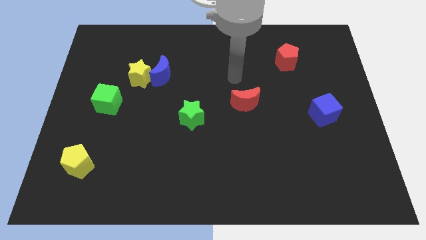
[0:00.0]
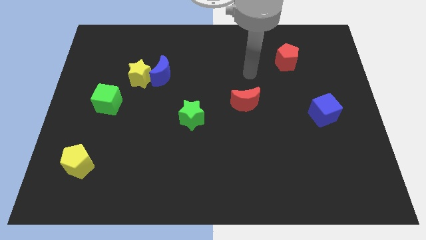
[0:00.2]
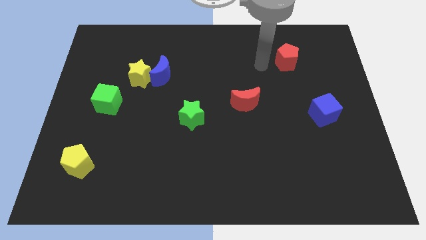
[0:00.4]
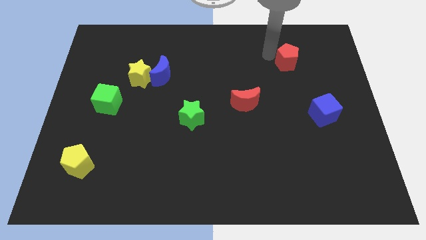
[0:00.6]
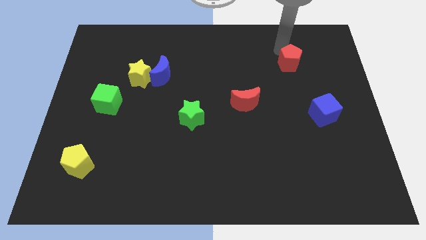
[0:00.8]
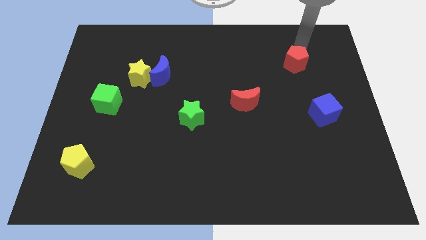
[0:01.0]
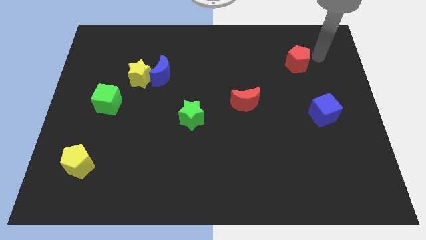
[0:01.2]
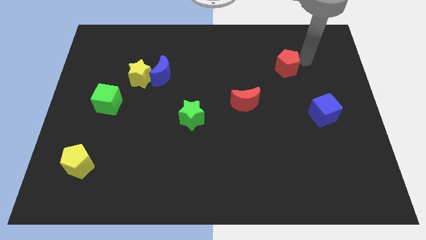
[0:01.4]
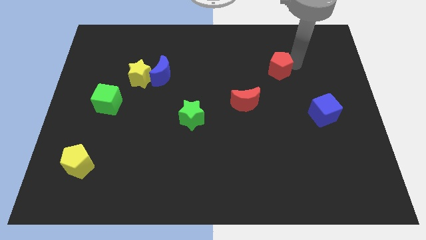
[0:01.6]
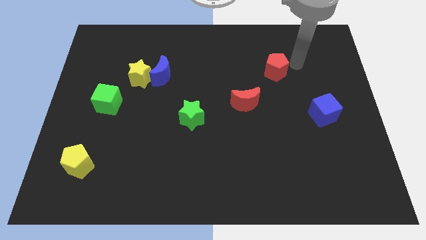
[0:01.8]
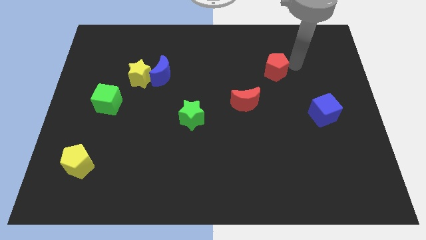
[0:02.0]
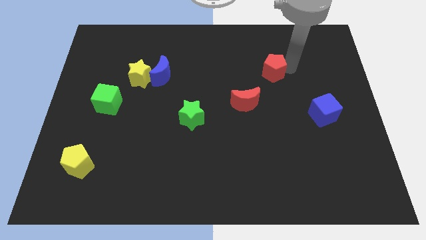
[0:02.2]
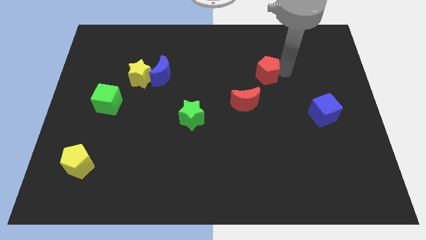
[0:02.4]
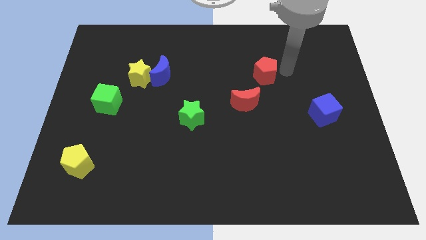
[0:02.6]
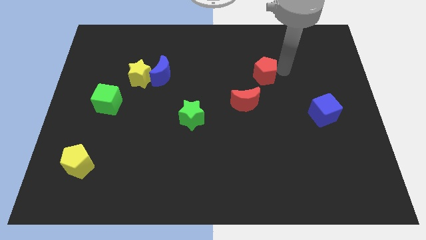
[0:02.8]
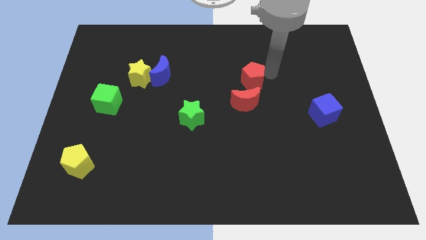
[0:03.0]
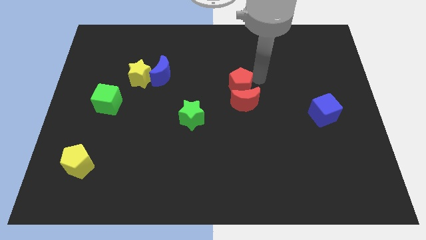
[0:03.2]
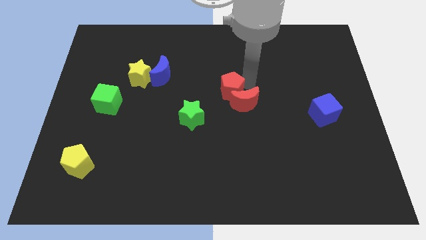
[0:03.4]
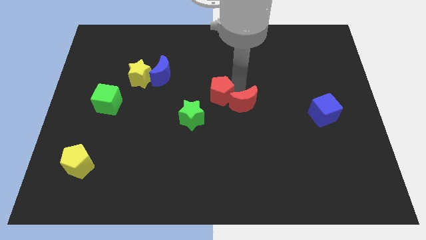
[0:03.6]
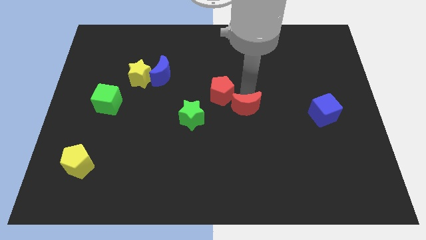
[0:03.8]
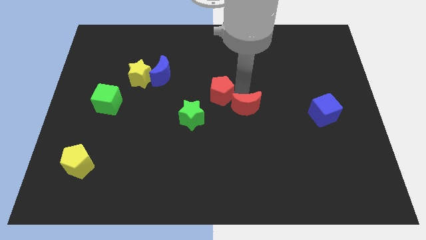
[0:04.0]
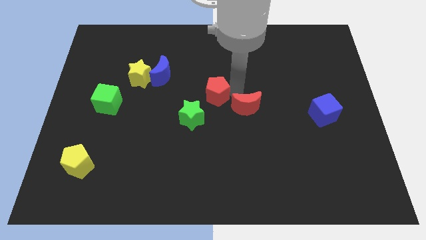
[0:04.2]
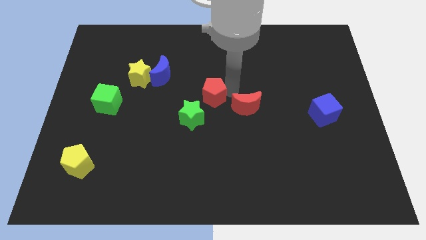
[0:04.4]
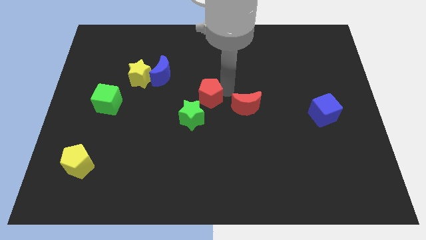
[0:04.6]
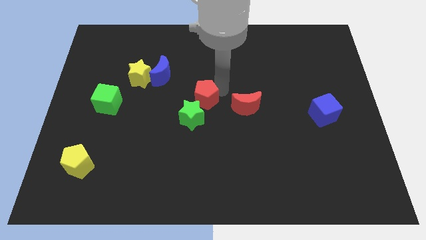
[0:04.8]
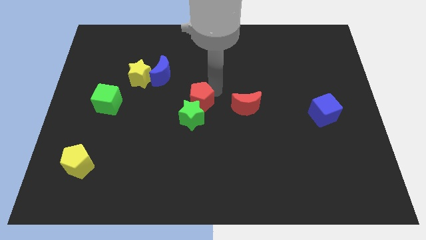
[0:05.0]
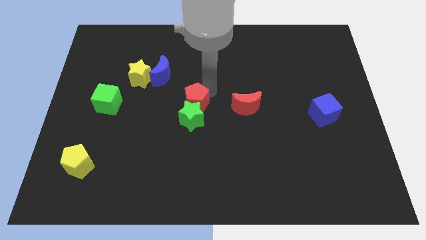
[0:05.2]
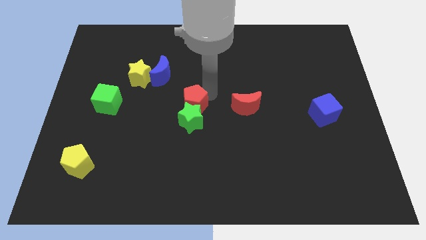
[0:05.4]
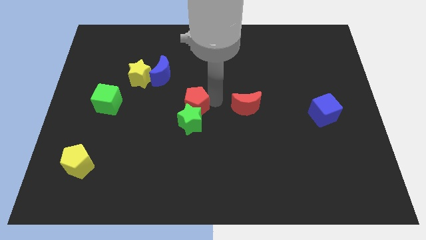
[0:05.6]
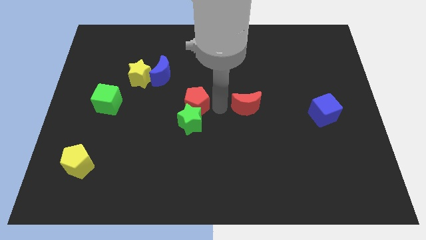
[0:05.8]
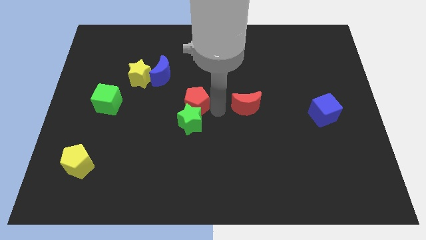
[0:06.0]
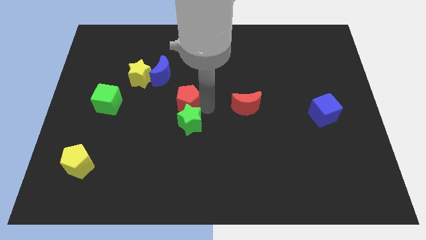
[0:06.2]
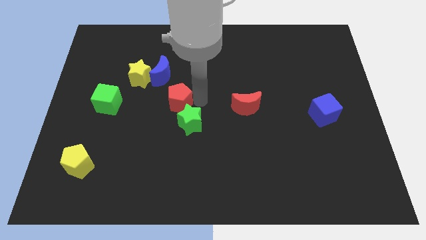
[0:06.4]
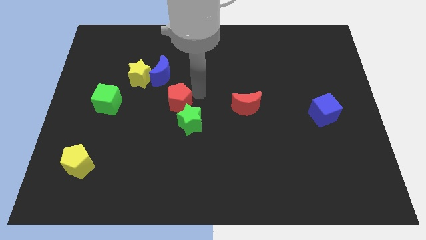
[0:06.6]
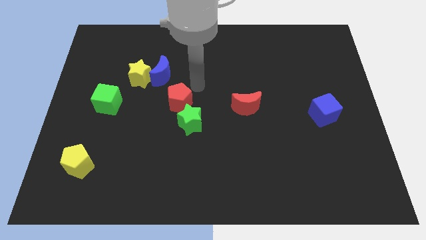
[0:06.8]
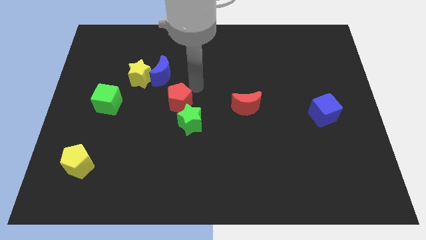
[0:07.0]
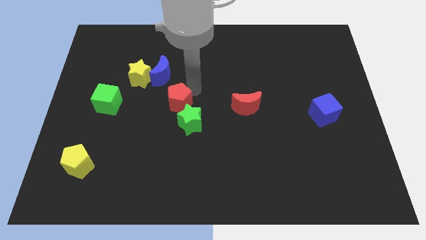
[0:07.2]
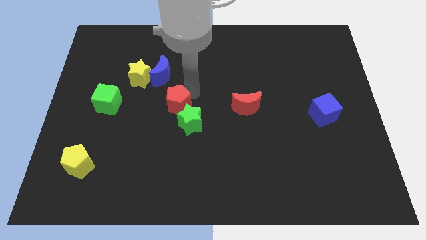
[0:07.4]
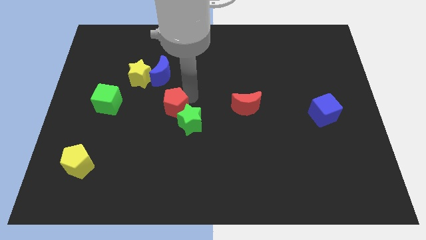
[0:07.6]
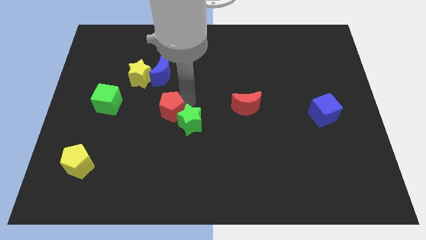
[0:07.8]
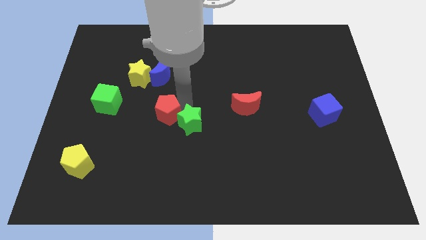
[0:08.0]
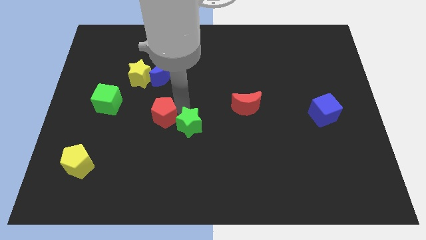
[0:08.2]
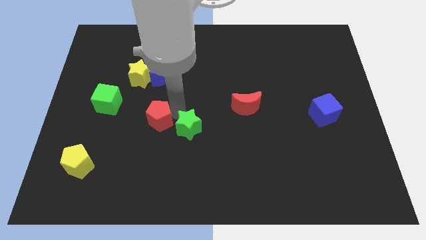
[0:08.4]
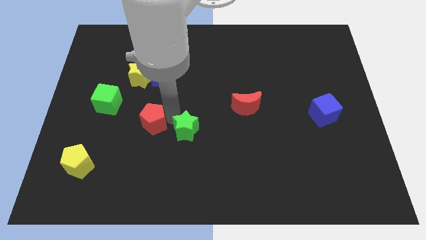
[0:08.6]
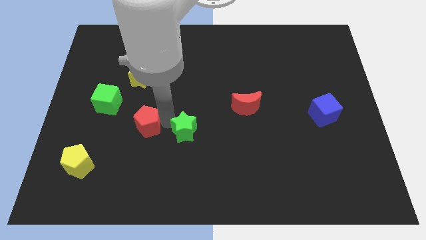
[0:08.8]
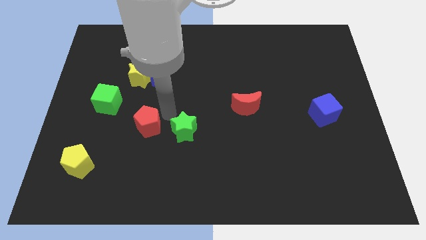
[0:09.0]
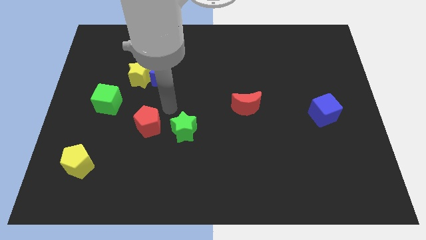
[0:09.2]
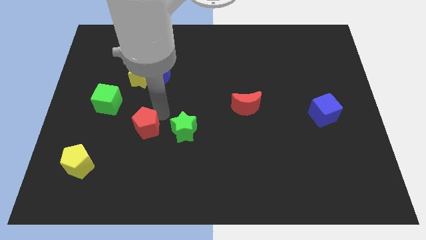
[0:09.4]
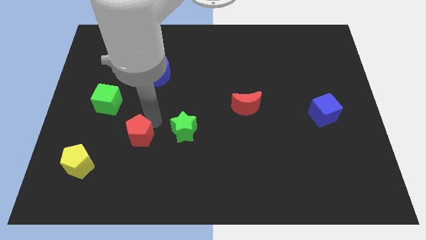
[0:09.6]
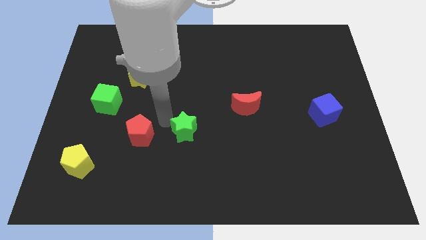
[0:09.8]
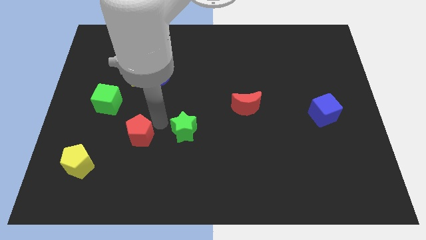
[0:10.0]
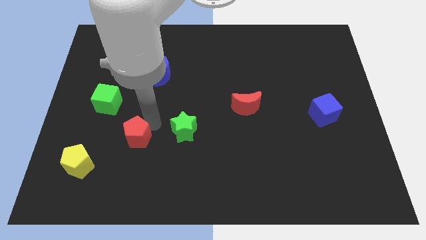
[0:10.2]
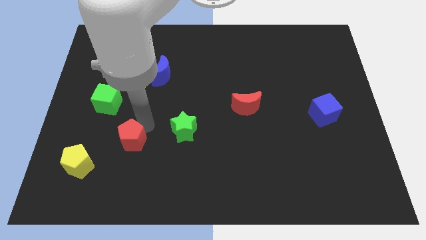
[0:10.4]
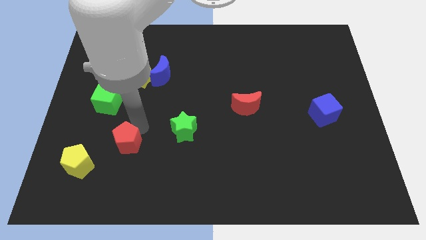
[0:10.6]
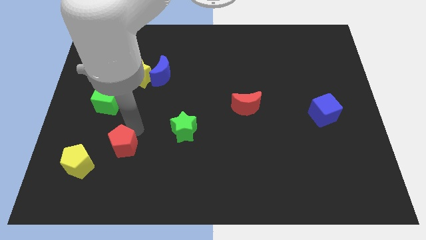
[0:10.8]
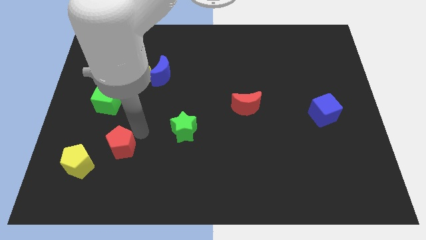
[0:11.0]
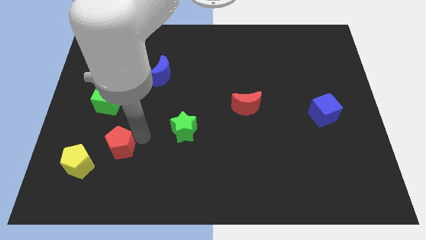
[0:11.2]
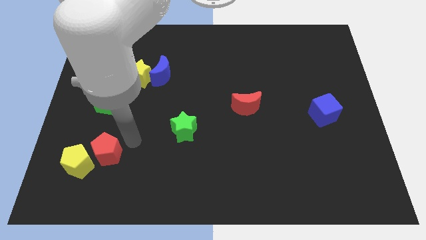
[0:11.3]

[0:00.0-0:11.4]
move the red pentagon next to the yellow pentagon

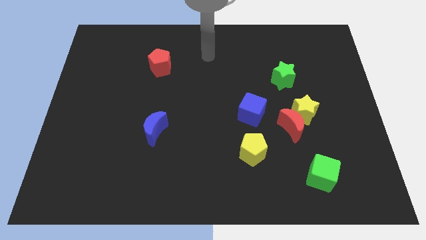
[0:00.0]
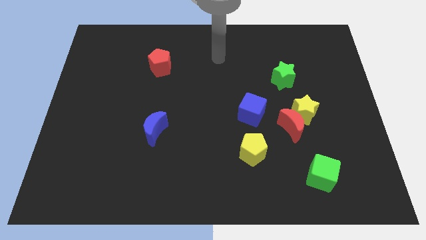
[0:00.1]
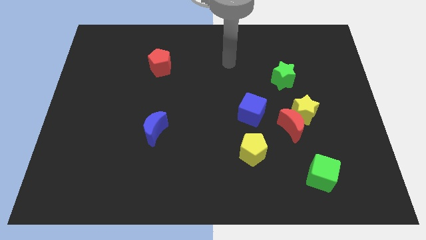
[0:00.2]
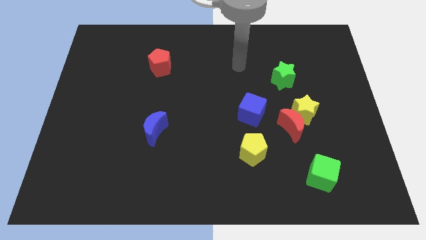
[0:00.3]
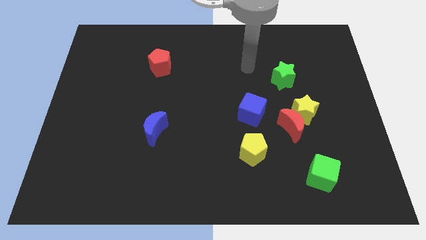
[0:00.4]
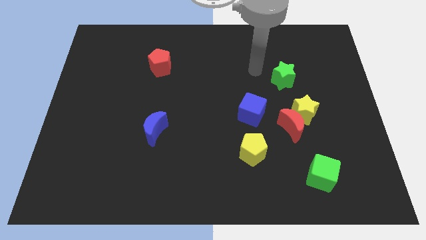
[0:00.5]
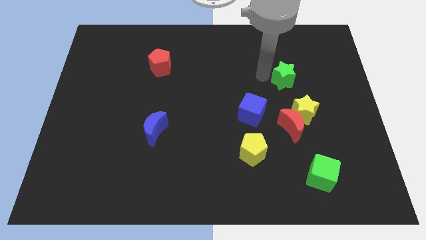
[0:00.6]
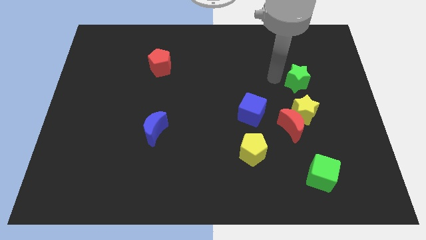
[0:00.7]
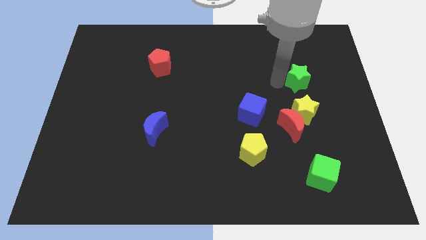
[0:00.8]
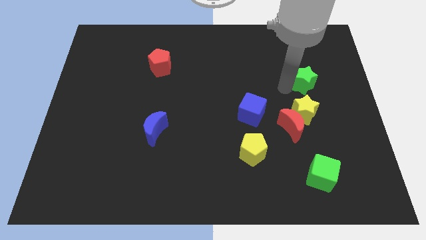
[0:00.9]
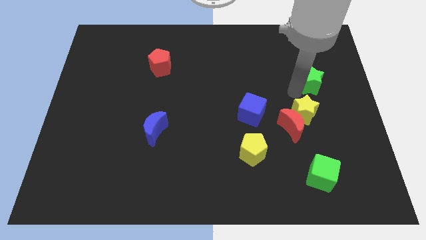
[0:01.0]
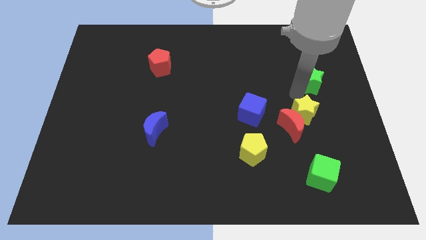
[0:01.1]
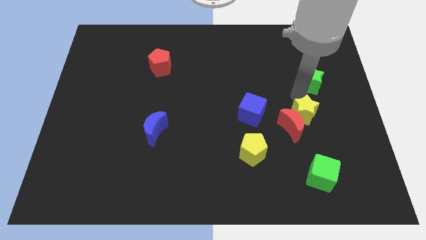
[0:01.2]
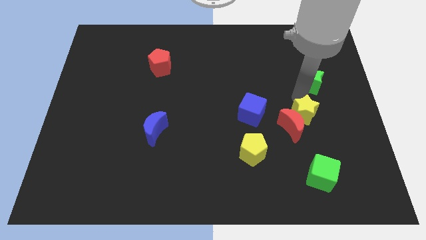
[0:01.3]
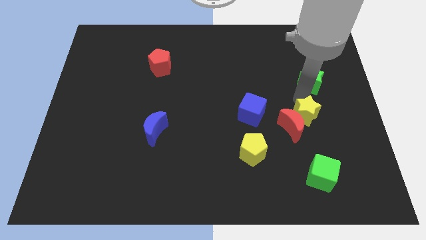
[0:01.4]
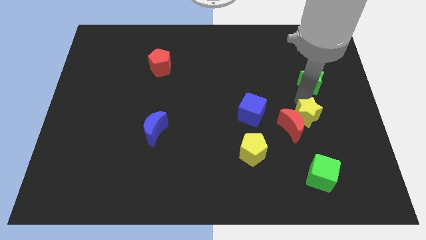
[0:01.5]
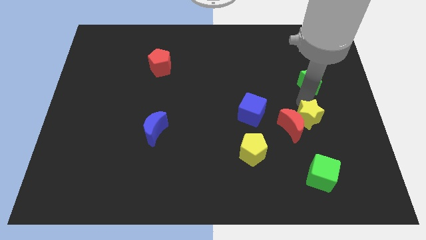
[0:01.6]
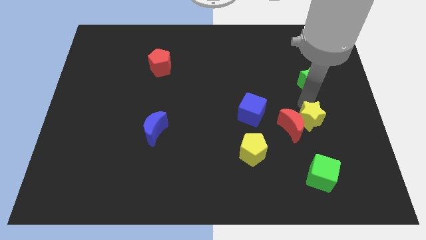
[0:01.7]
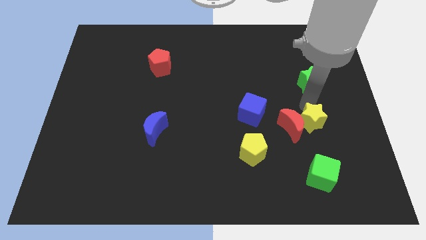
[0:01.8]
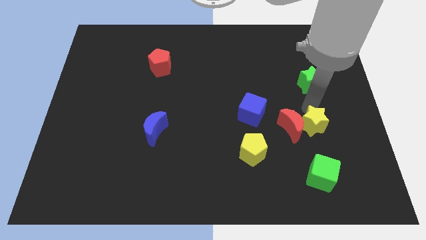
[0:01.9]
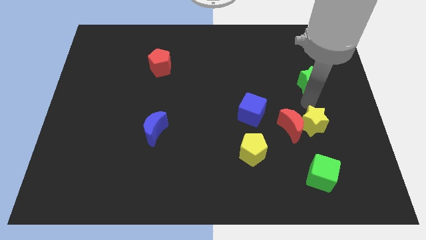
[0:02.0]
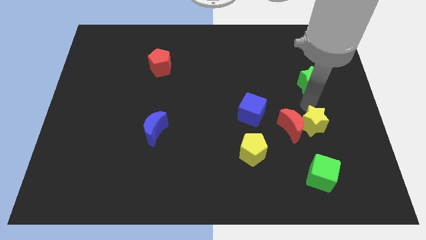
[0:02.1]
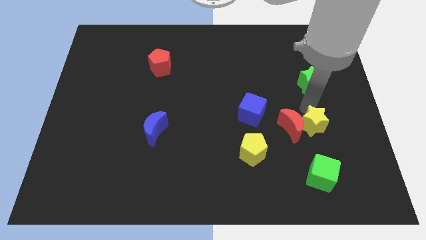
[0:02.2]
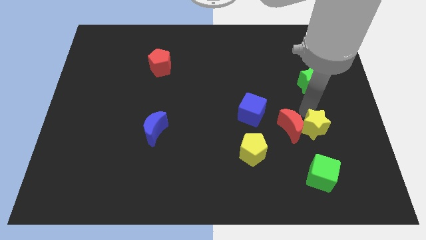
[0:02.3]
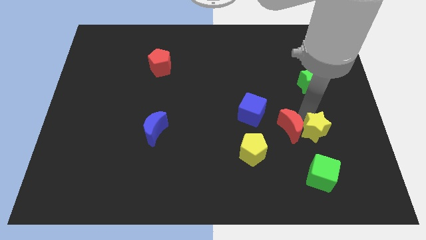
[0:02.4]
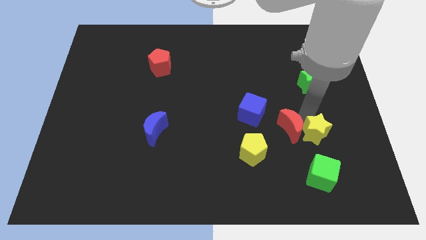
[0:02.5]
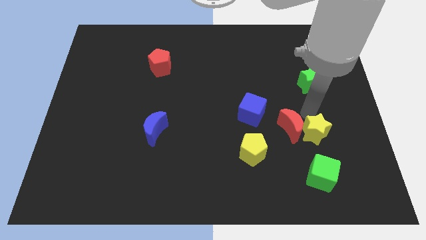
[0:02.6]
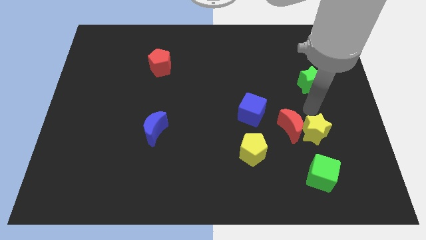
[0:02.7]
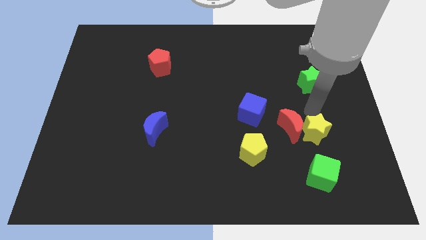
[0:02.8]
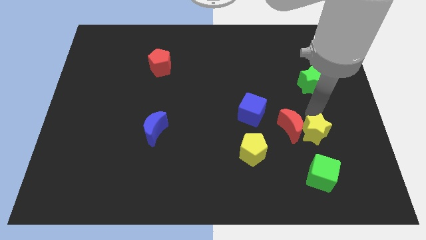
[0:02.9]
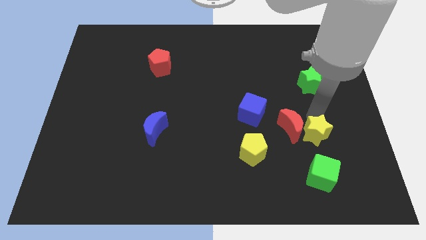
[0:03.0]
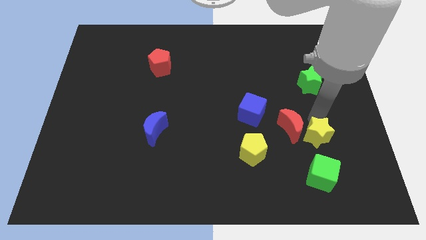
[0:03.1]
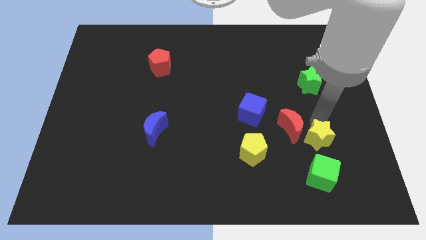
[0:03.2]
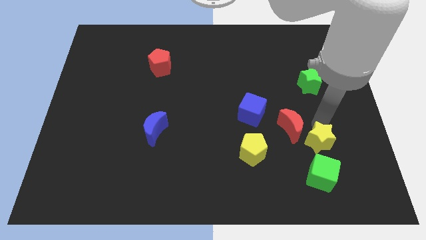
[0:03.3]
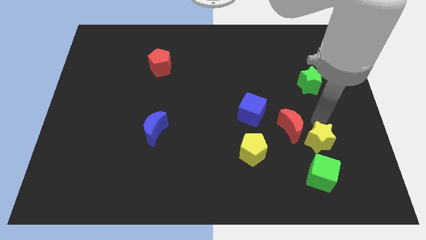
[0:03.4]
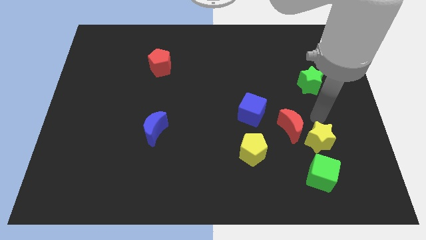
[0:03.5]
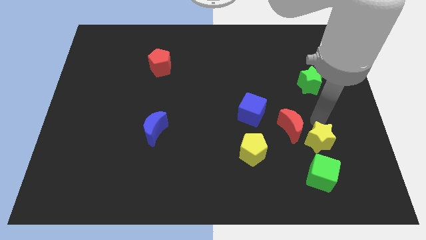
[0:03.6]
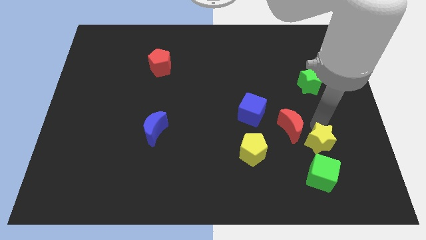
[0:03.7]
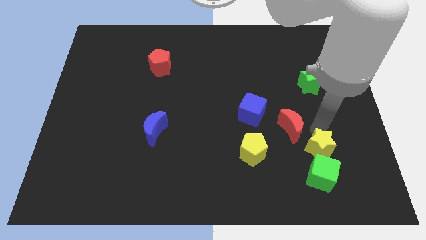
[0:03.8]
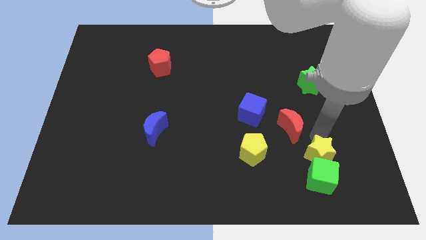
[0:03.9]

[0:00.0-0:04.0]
move the yellow star towards the green cube
